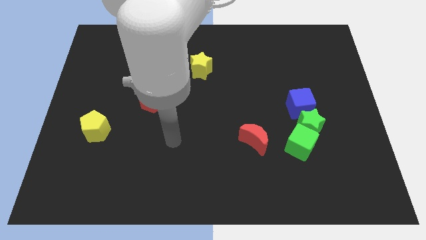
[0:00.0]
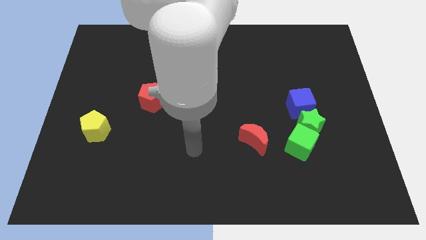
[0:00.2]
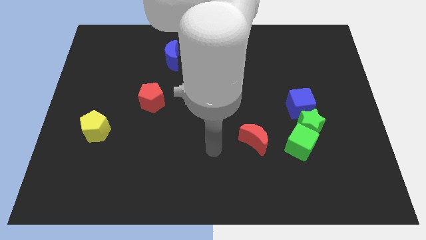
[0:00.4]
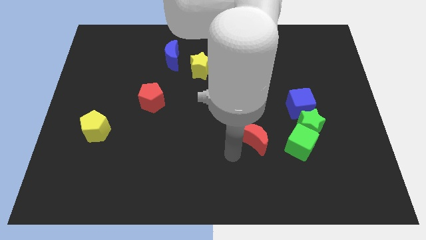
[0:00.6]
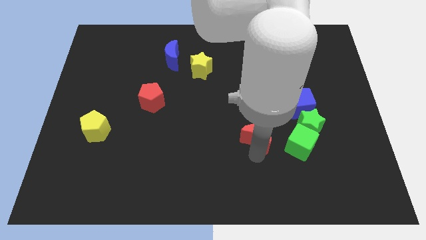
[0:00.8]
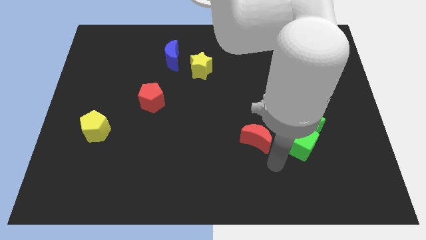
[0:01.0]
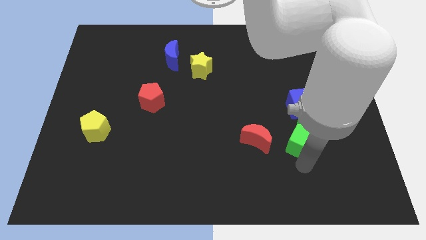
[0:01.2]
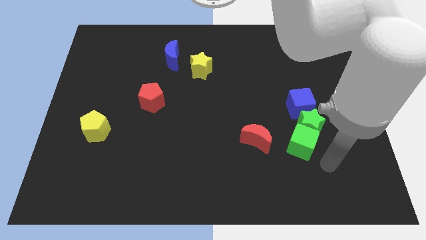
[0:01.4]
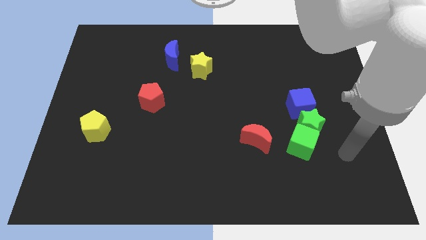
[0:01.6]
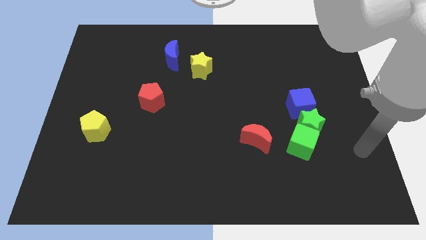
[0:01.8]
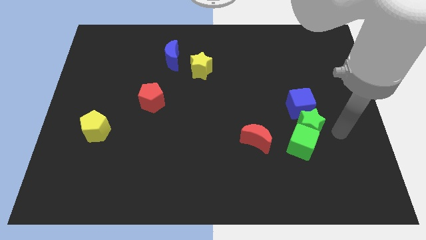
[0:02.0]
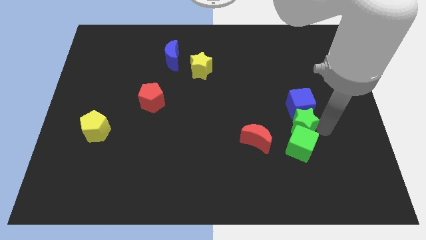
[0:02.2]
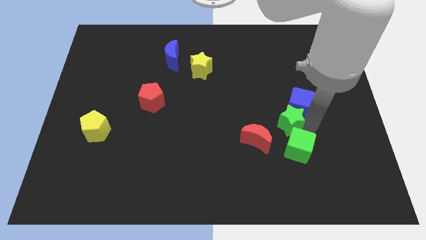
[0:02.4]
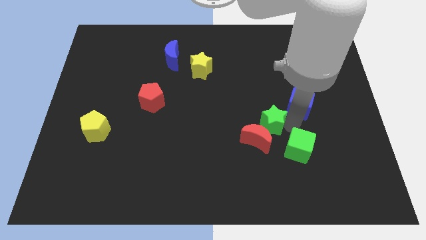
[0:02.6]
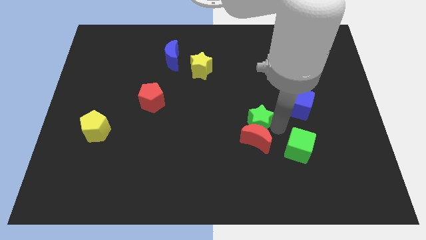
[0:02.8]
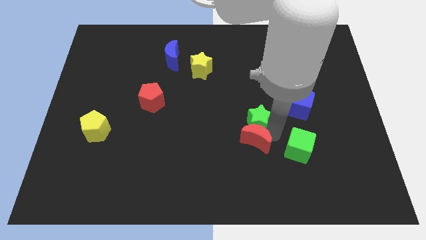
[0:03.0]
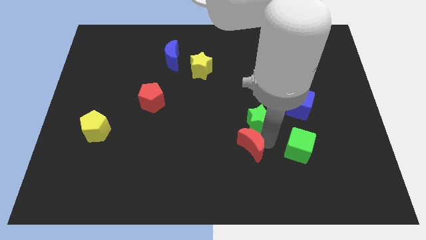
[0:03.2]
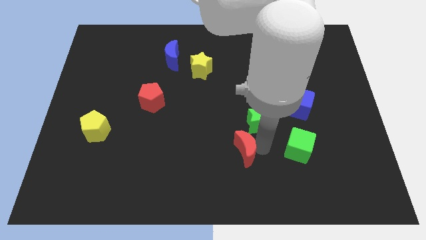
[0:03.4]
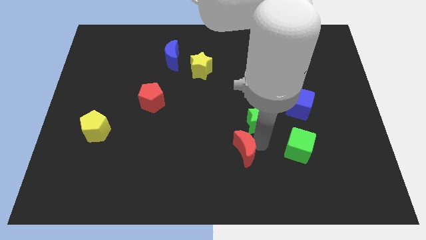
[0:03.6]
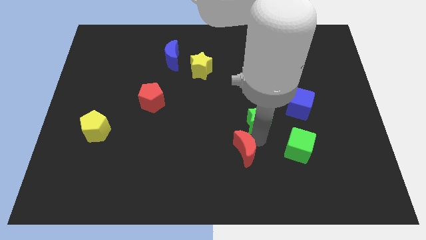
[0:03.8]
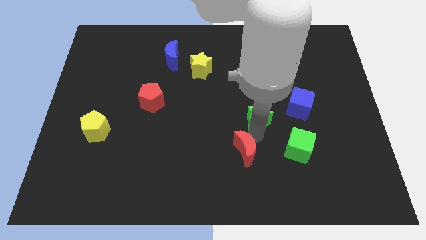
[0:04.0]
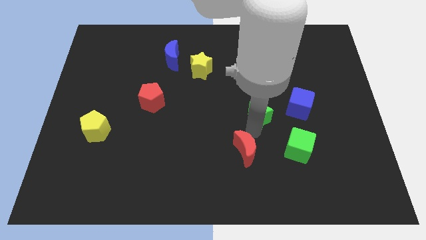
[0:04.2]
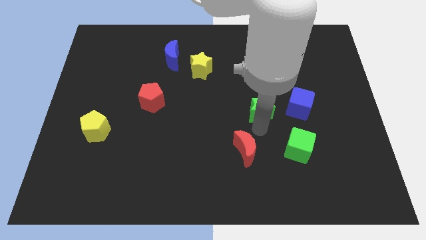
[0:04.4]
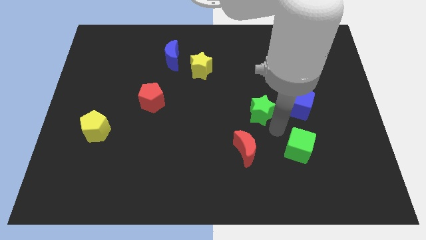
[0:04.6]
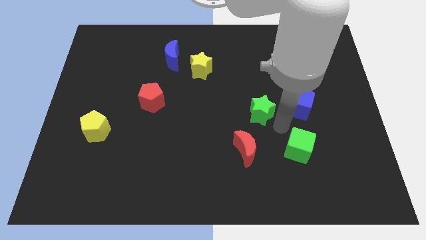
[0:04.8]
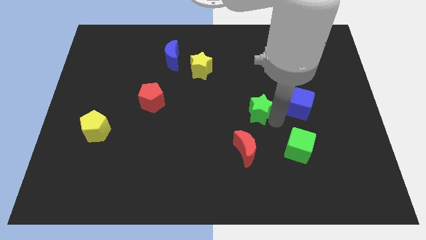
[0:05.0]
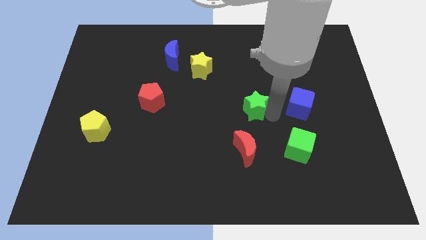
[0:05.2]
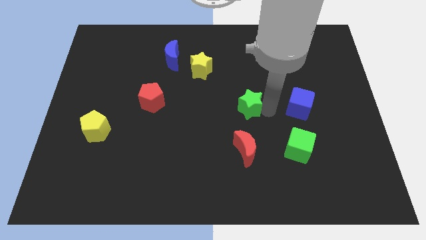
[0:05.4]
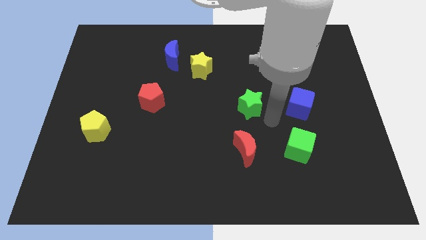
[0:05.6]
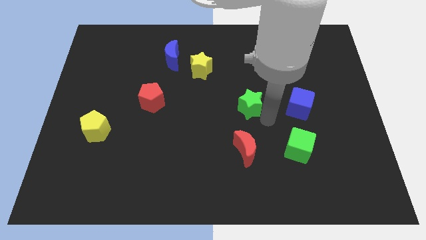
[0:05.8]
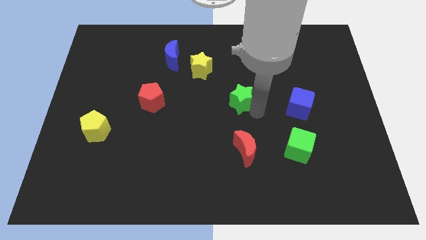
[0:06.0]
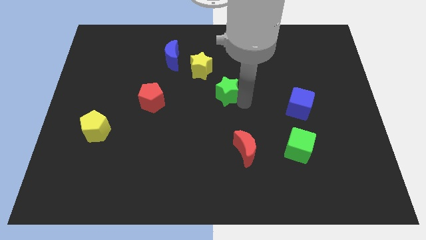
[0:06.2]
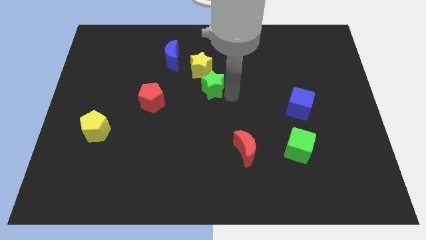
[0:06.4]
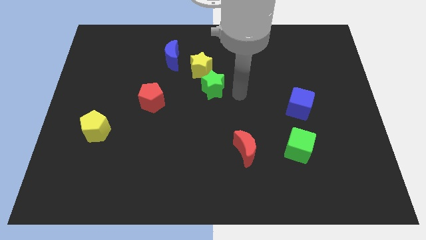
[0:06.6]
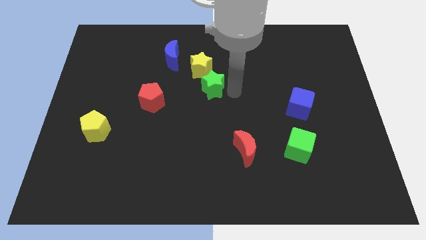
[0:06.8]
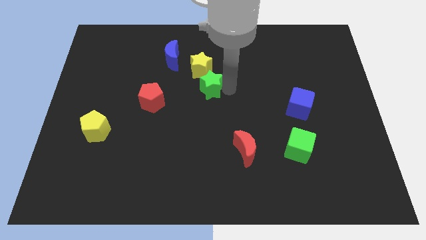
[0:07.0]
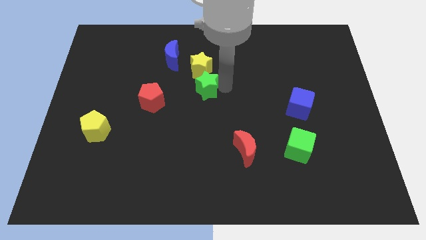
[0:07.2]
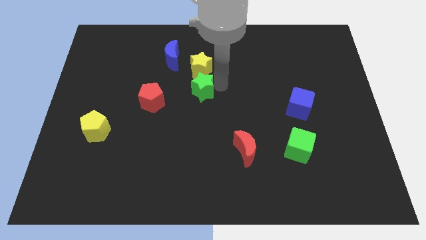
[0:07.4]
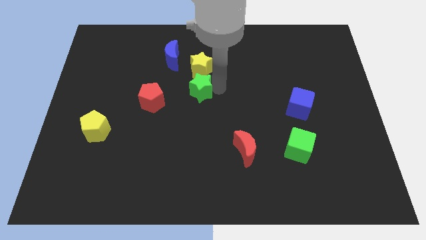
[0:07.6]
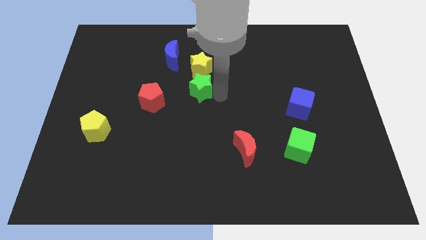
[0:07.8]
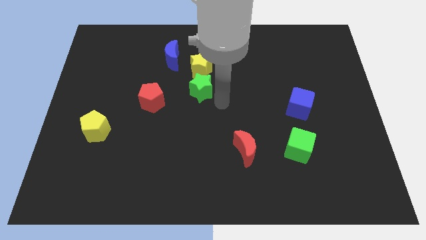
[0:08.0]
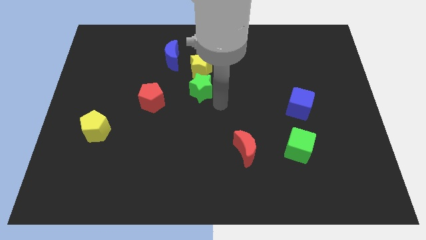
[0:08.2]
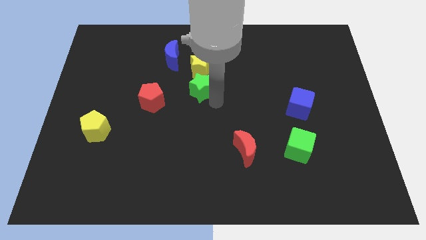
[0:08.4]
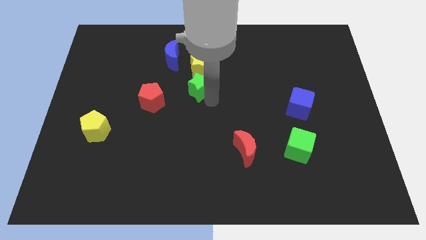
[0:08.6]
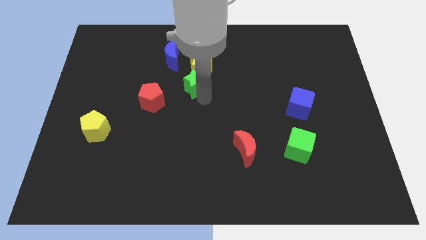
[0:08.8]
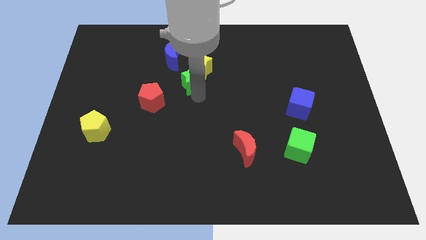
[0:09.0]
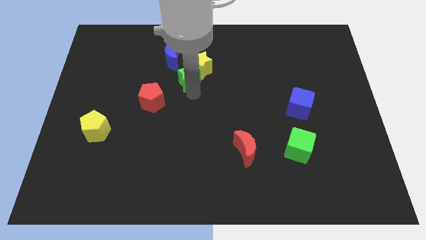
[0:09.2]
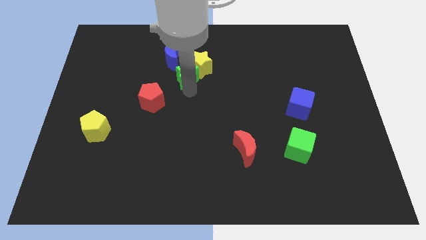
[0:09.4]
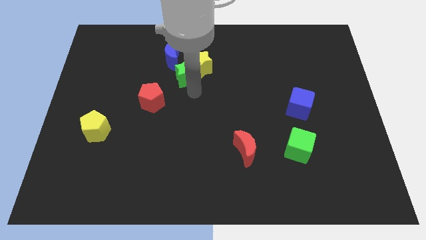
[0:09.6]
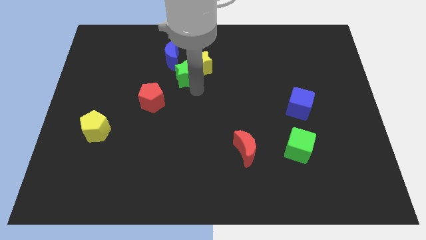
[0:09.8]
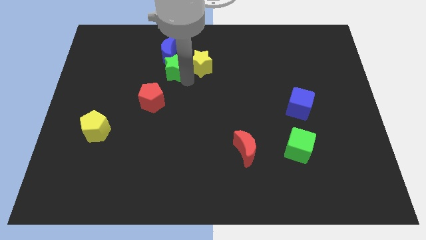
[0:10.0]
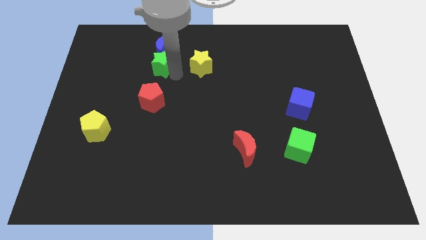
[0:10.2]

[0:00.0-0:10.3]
push the green star next to the blue moon

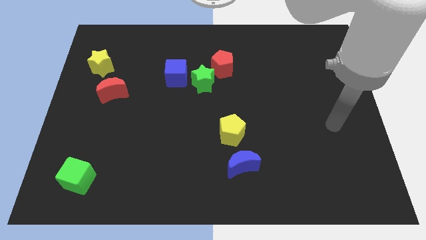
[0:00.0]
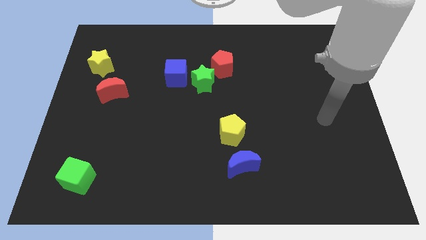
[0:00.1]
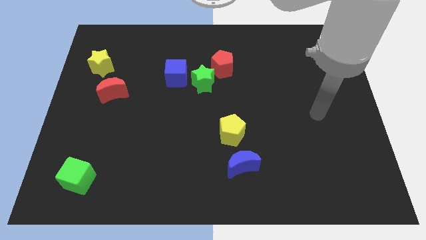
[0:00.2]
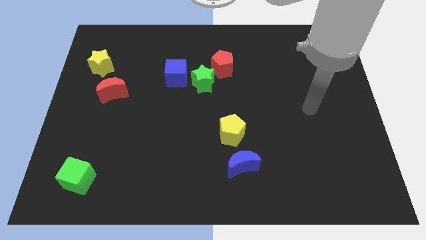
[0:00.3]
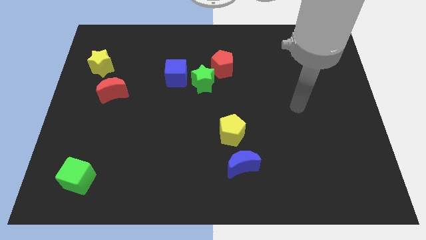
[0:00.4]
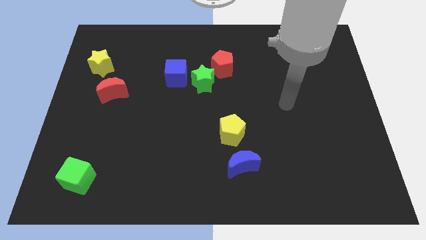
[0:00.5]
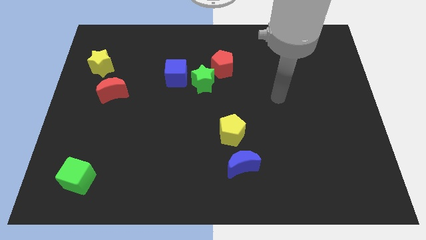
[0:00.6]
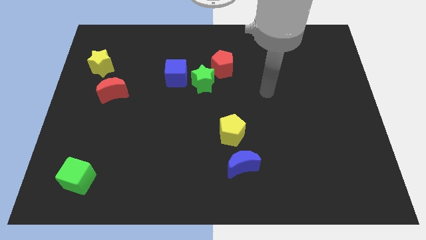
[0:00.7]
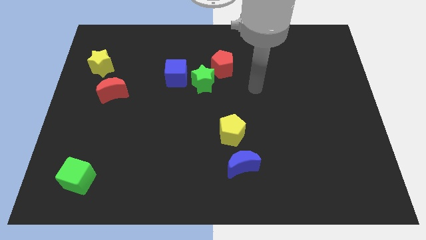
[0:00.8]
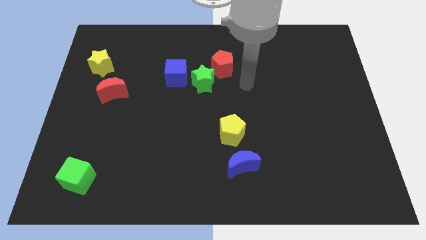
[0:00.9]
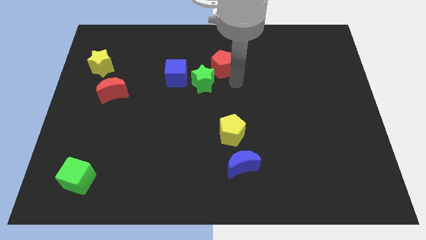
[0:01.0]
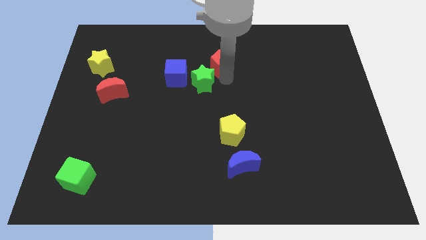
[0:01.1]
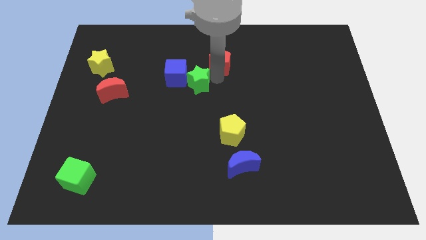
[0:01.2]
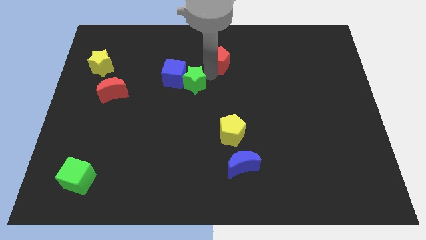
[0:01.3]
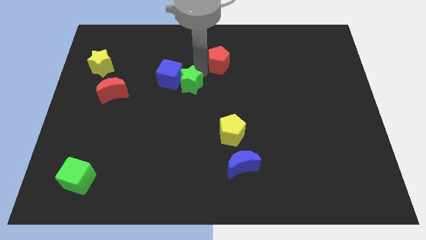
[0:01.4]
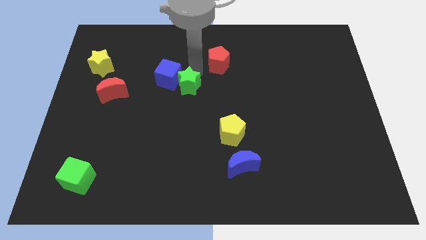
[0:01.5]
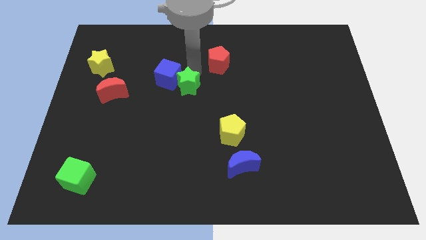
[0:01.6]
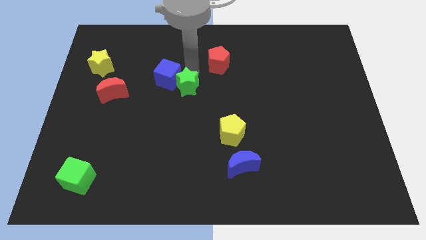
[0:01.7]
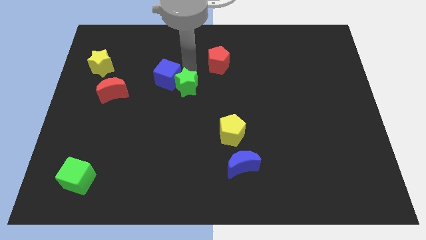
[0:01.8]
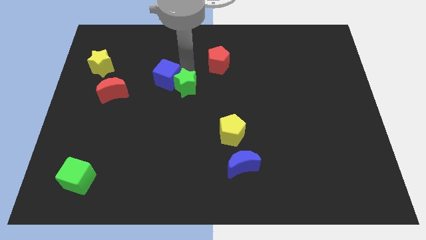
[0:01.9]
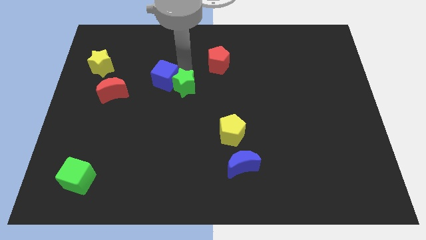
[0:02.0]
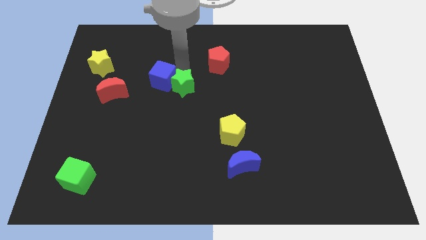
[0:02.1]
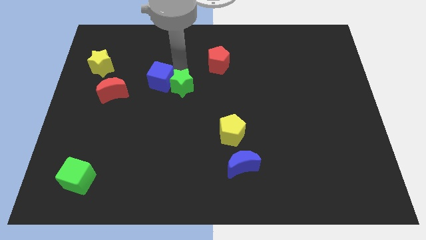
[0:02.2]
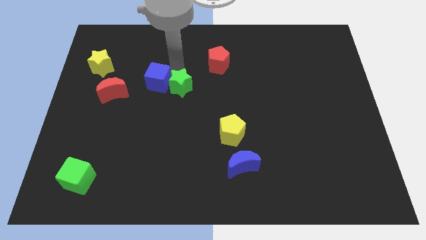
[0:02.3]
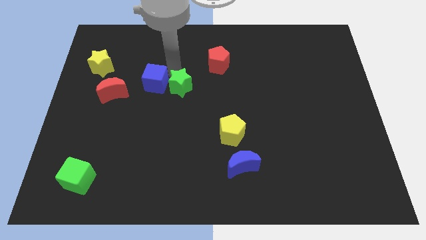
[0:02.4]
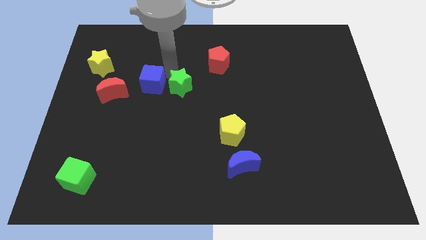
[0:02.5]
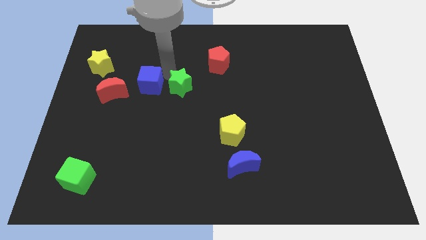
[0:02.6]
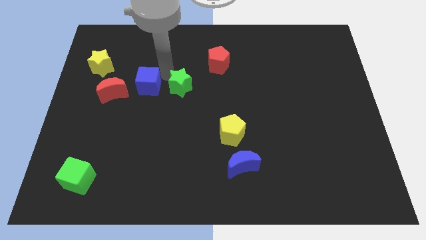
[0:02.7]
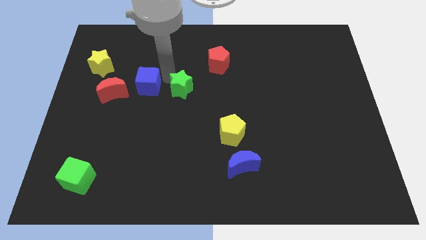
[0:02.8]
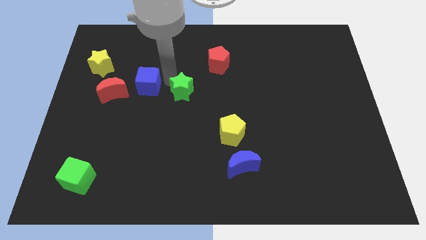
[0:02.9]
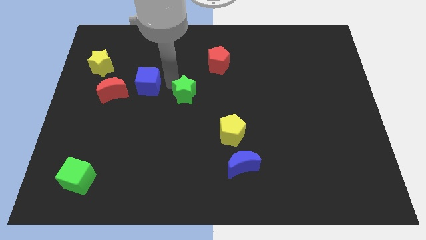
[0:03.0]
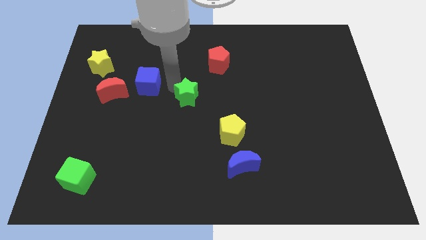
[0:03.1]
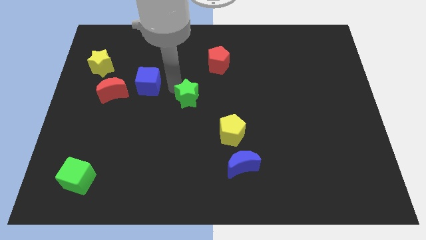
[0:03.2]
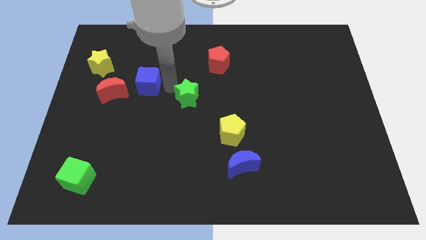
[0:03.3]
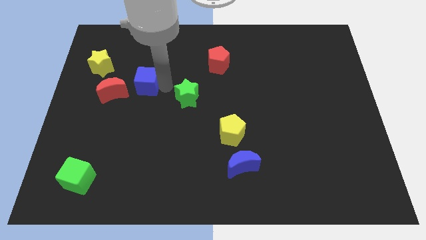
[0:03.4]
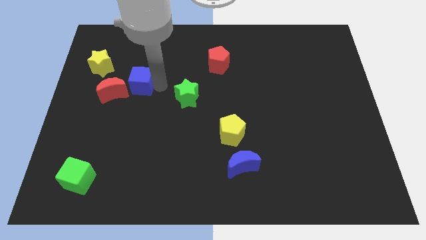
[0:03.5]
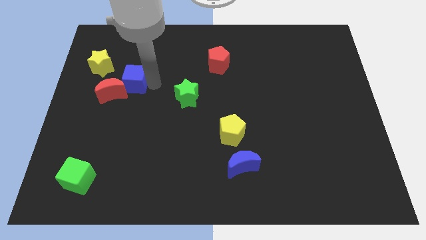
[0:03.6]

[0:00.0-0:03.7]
slide the blue cube towards the red moon
